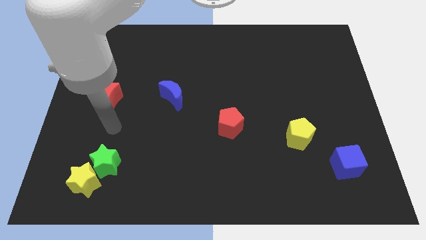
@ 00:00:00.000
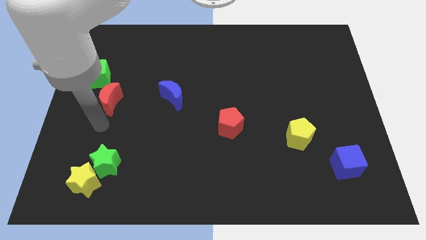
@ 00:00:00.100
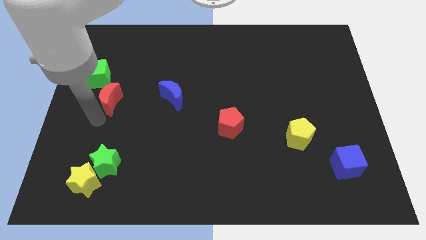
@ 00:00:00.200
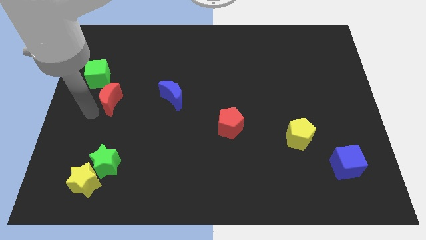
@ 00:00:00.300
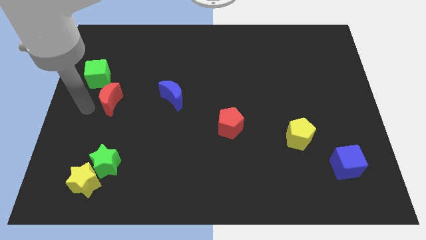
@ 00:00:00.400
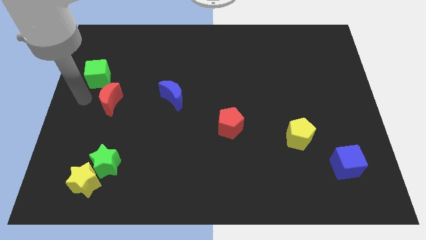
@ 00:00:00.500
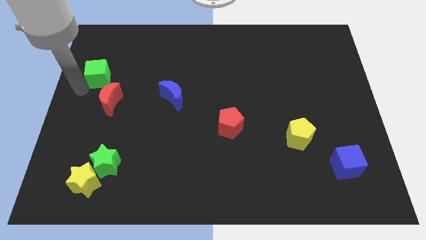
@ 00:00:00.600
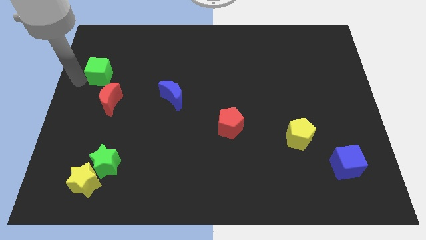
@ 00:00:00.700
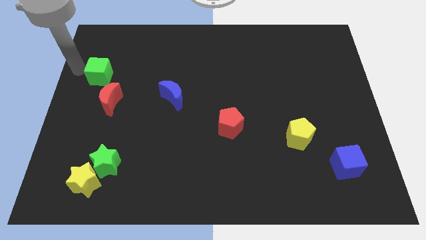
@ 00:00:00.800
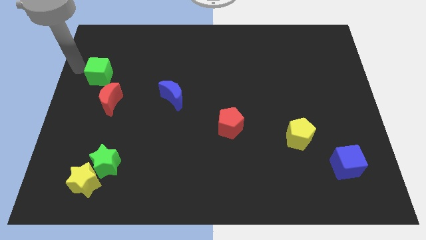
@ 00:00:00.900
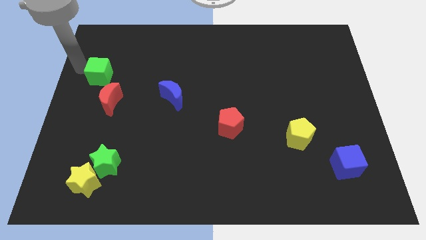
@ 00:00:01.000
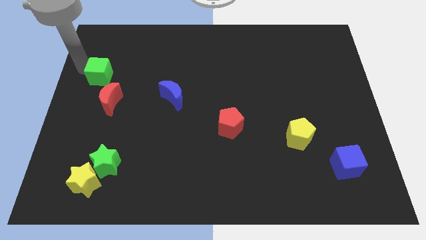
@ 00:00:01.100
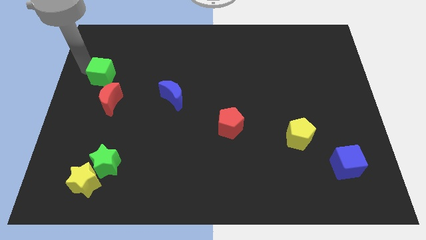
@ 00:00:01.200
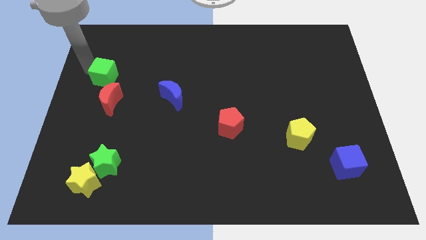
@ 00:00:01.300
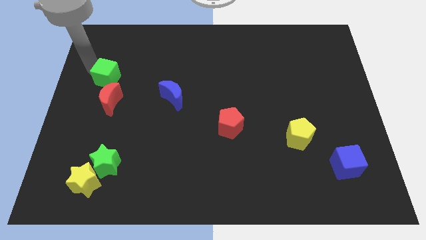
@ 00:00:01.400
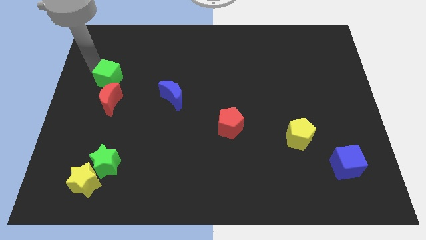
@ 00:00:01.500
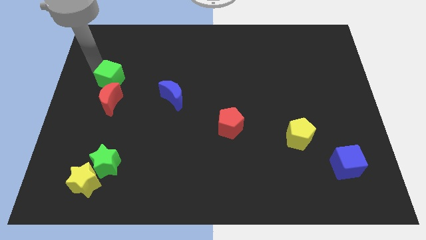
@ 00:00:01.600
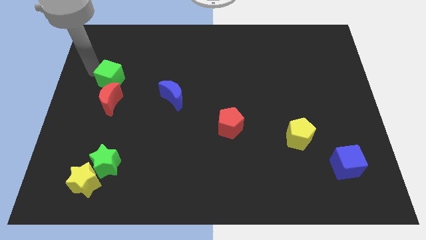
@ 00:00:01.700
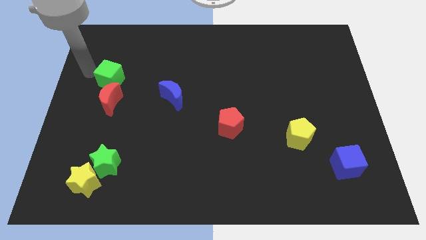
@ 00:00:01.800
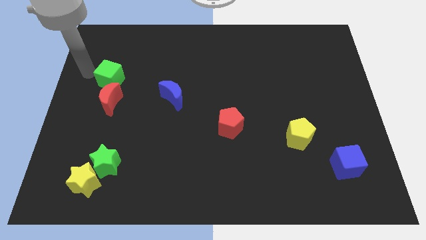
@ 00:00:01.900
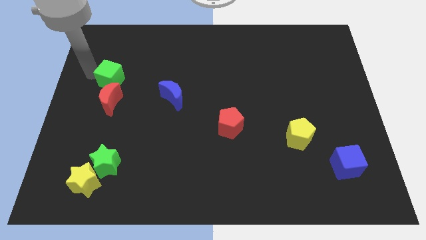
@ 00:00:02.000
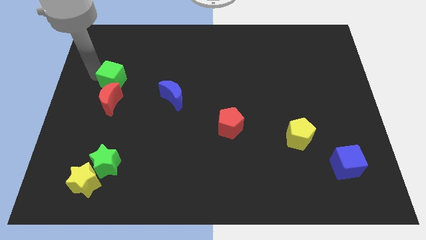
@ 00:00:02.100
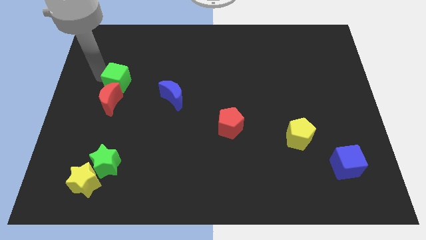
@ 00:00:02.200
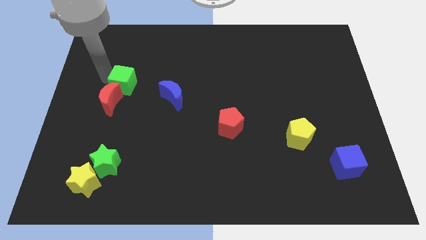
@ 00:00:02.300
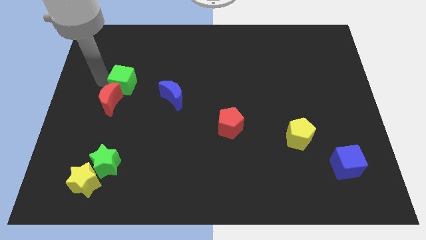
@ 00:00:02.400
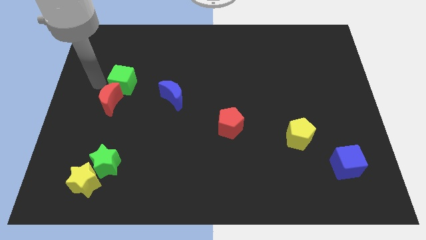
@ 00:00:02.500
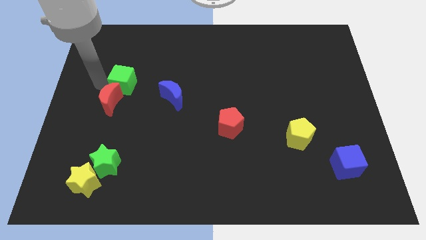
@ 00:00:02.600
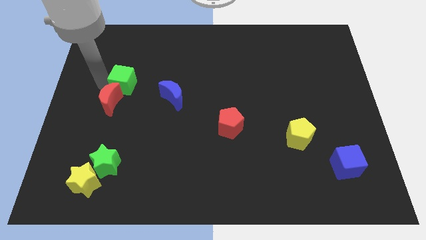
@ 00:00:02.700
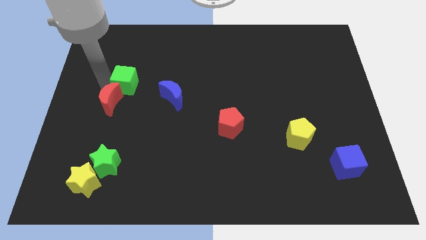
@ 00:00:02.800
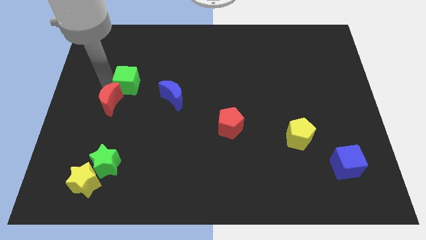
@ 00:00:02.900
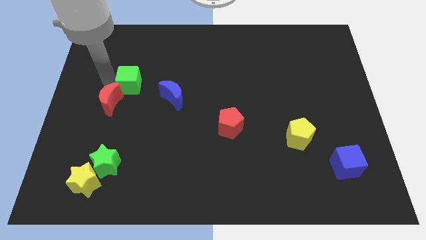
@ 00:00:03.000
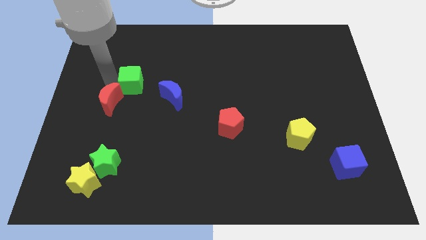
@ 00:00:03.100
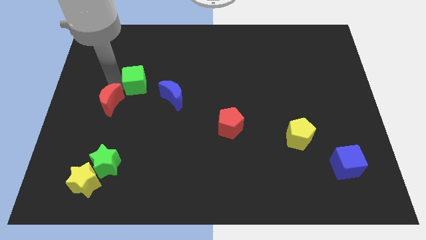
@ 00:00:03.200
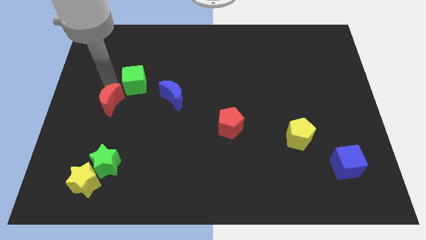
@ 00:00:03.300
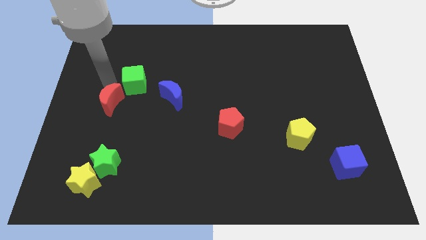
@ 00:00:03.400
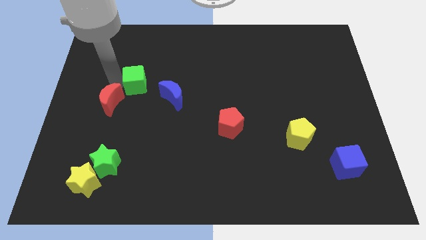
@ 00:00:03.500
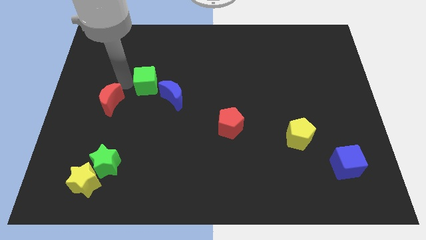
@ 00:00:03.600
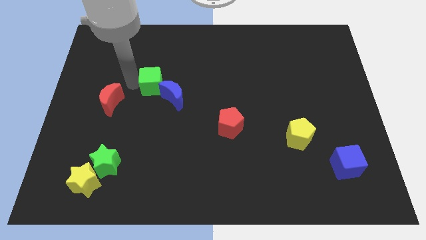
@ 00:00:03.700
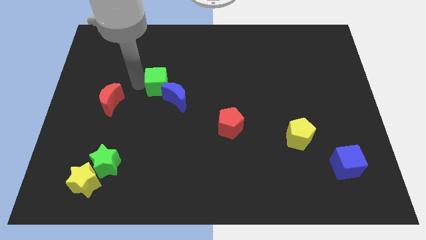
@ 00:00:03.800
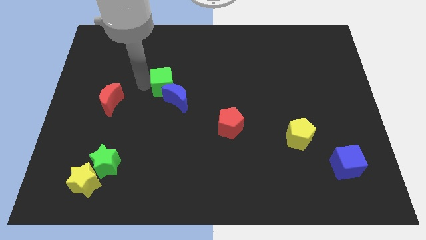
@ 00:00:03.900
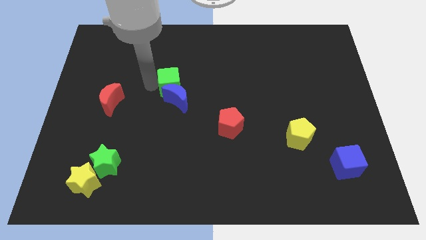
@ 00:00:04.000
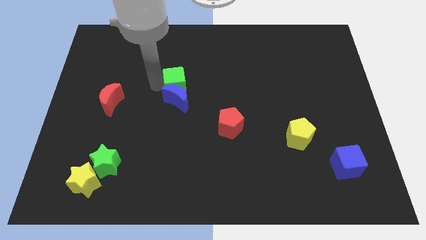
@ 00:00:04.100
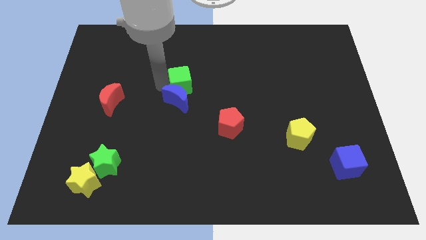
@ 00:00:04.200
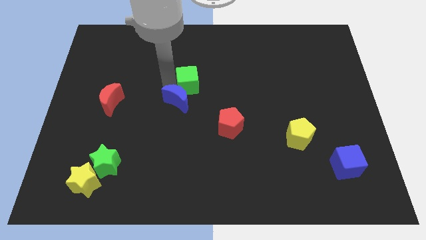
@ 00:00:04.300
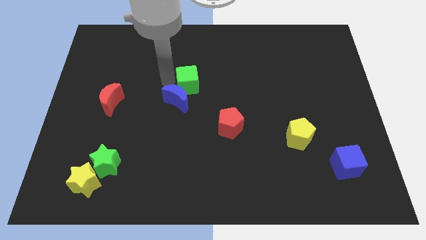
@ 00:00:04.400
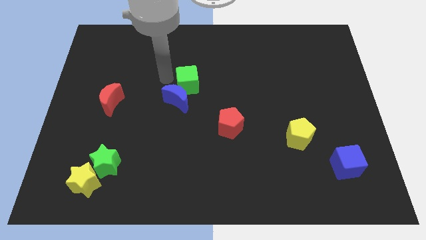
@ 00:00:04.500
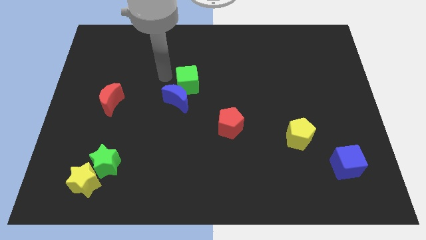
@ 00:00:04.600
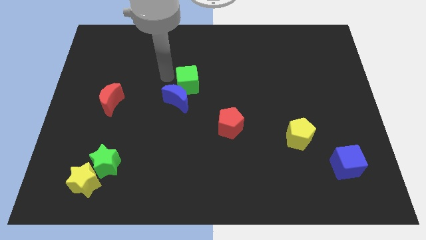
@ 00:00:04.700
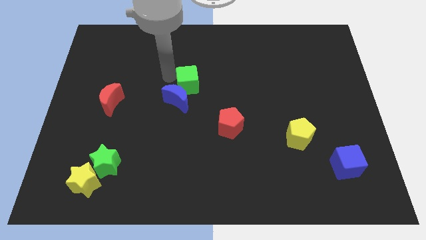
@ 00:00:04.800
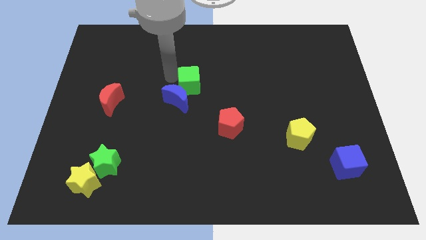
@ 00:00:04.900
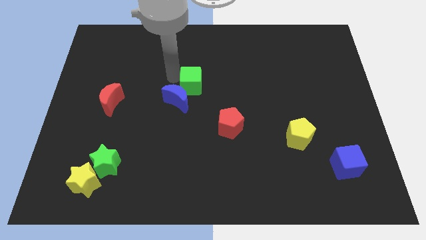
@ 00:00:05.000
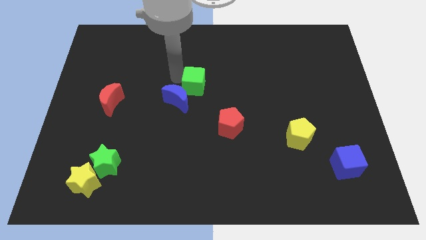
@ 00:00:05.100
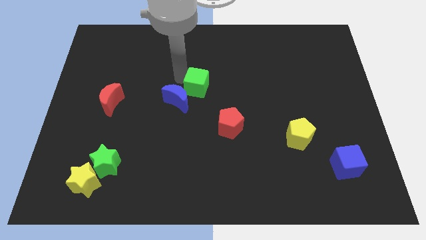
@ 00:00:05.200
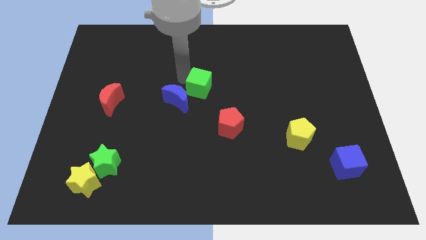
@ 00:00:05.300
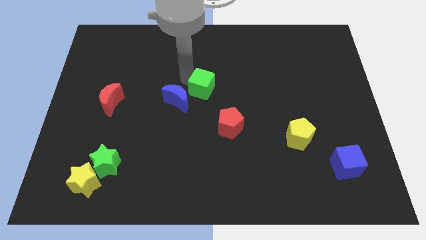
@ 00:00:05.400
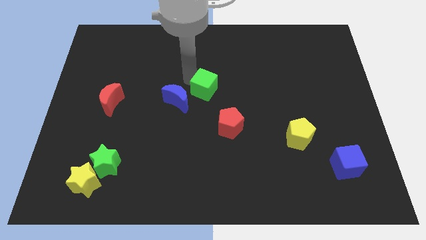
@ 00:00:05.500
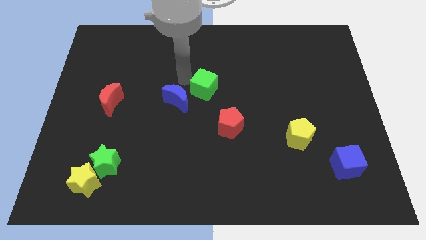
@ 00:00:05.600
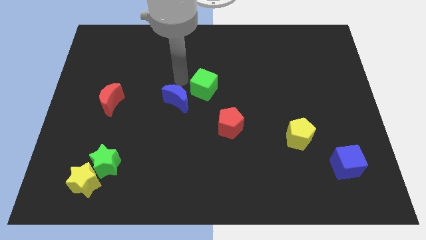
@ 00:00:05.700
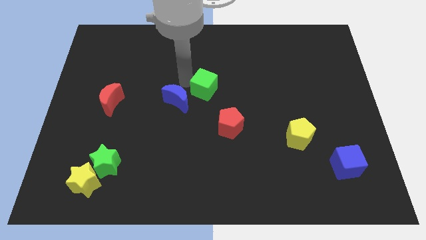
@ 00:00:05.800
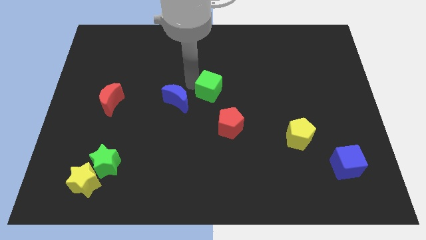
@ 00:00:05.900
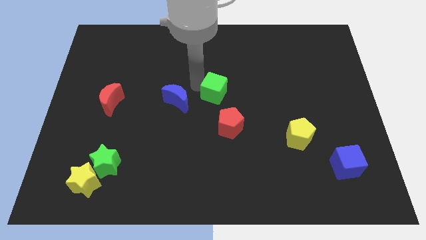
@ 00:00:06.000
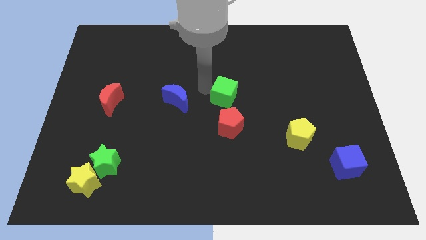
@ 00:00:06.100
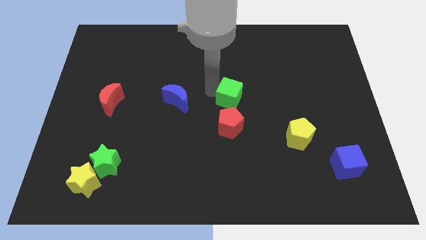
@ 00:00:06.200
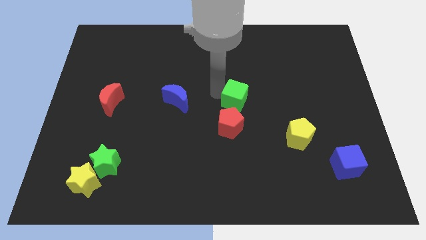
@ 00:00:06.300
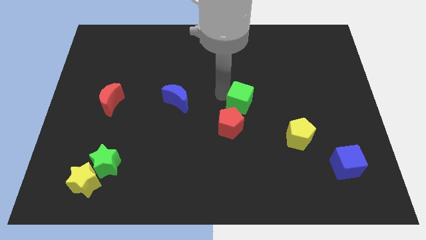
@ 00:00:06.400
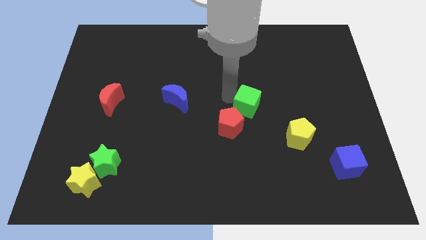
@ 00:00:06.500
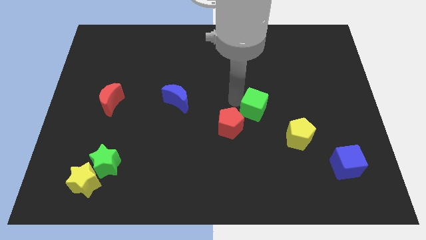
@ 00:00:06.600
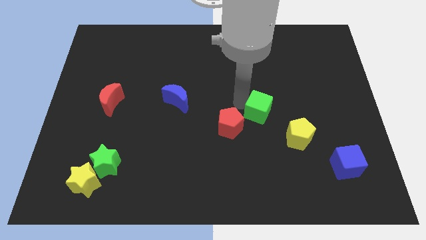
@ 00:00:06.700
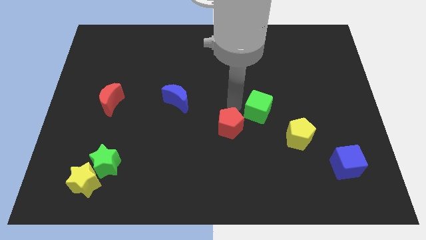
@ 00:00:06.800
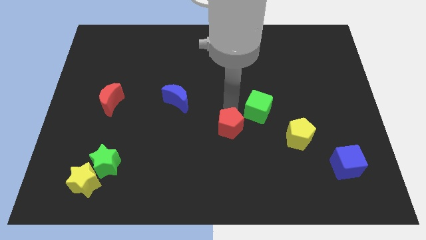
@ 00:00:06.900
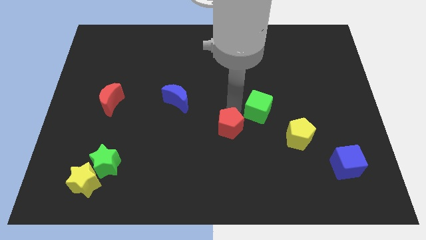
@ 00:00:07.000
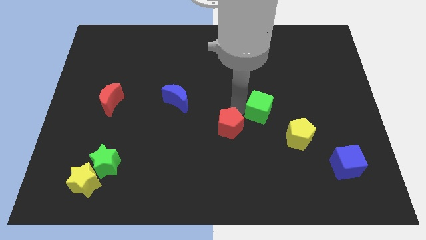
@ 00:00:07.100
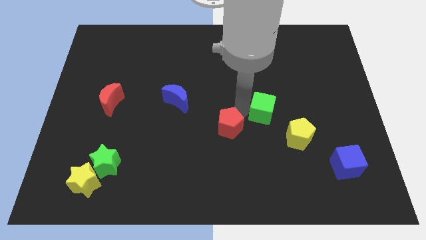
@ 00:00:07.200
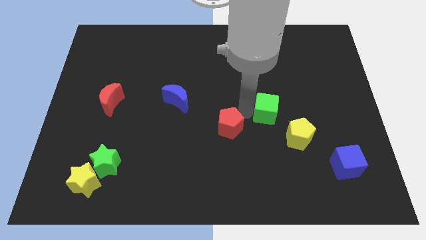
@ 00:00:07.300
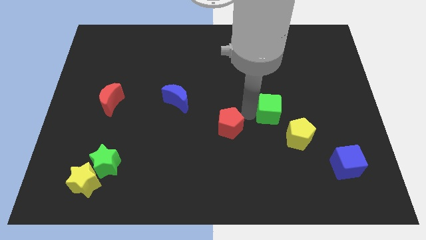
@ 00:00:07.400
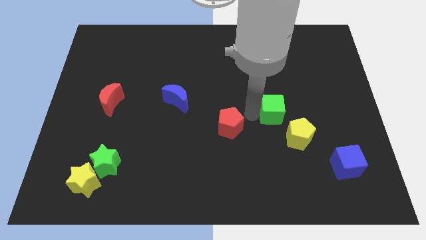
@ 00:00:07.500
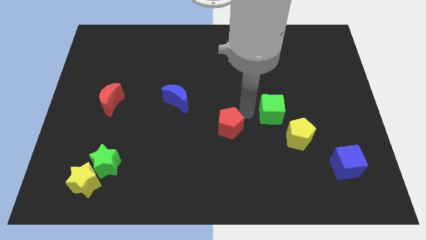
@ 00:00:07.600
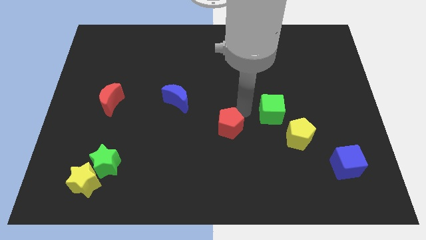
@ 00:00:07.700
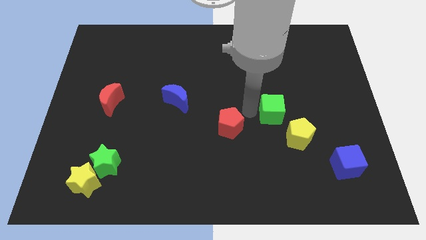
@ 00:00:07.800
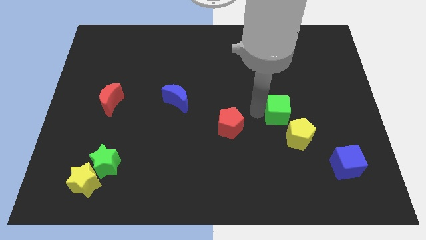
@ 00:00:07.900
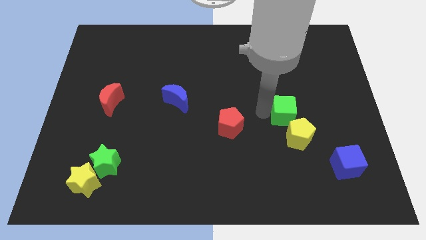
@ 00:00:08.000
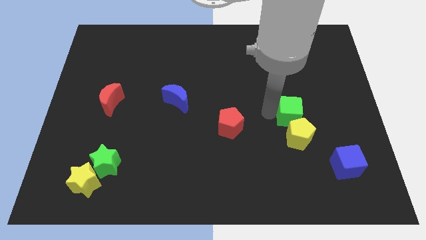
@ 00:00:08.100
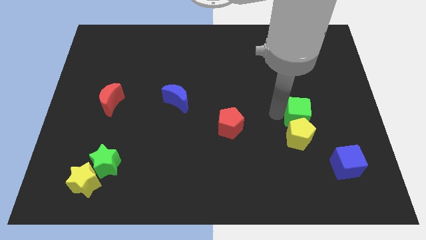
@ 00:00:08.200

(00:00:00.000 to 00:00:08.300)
put the green cube to the top right of the yellow pentagon
